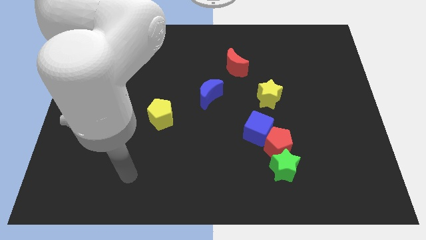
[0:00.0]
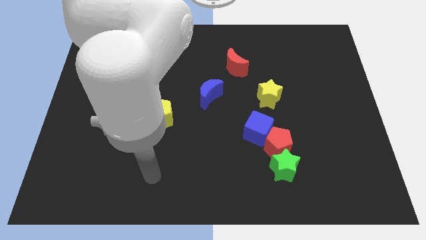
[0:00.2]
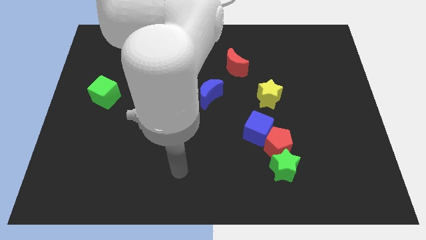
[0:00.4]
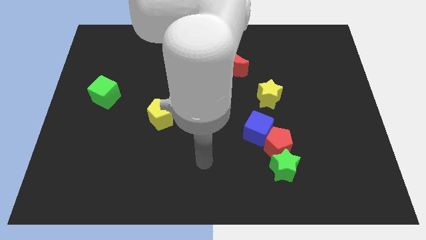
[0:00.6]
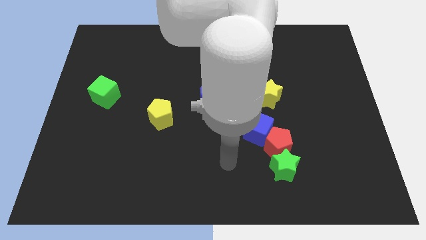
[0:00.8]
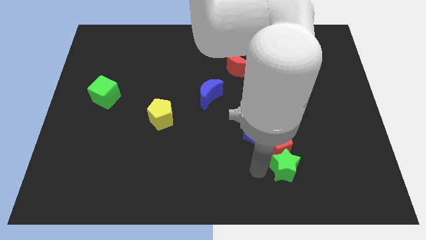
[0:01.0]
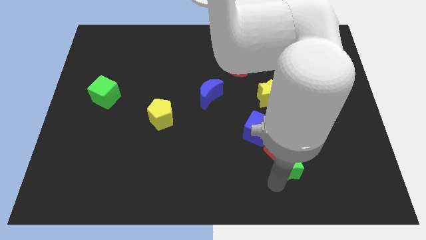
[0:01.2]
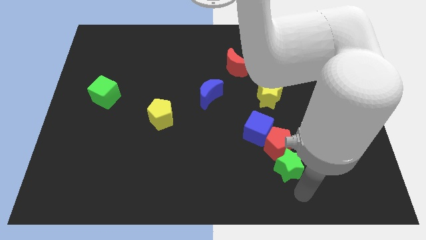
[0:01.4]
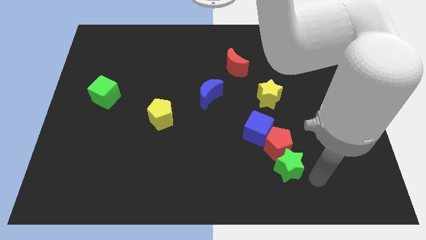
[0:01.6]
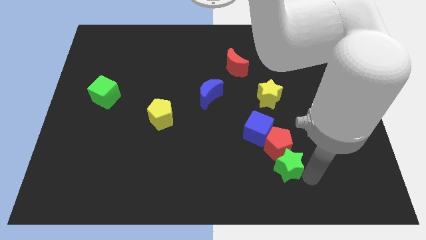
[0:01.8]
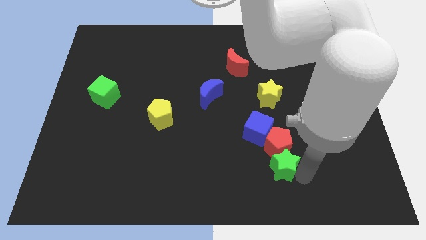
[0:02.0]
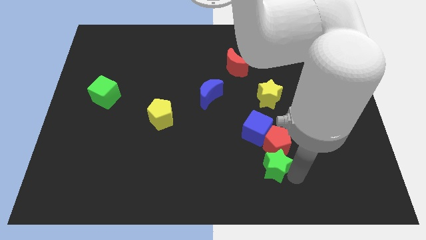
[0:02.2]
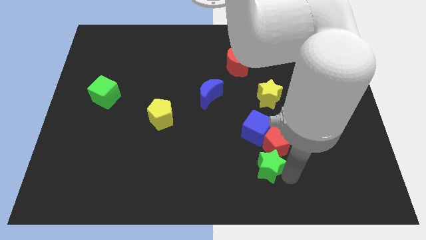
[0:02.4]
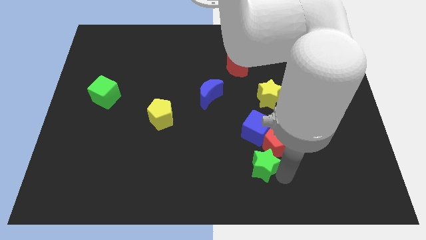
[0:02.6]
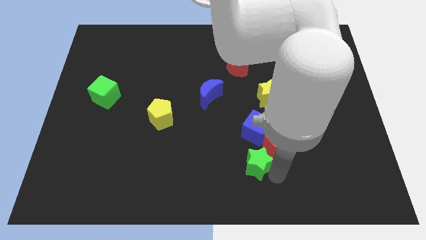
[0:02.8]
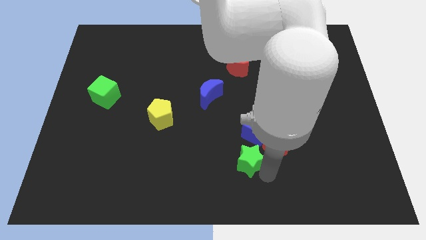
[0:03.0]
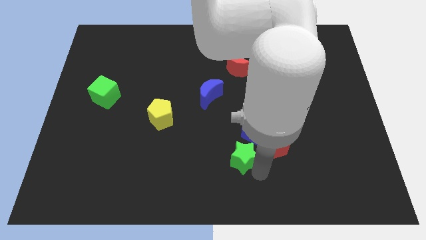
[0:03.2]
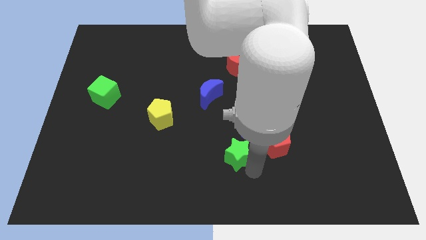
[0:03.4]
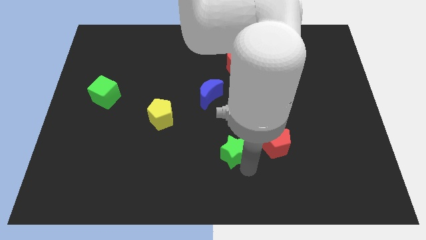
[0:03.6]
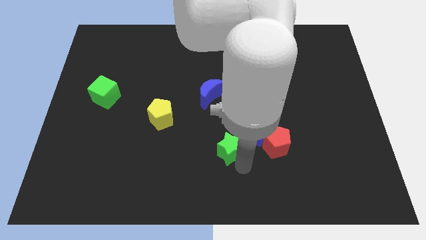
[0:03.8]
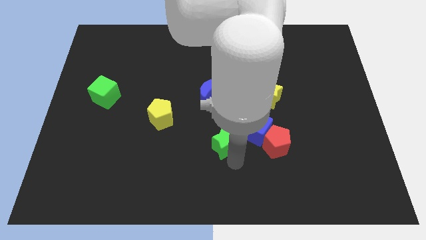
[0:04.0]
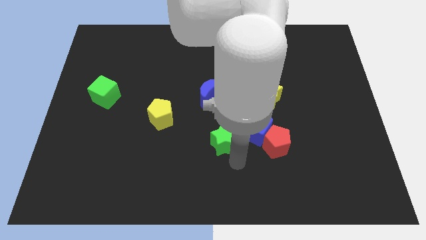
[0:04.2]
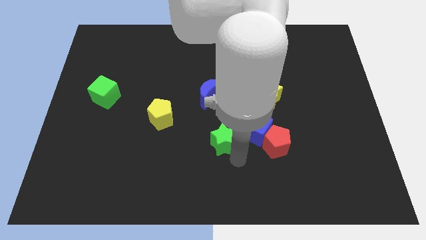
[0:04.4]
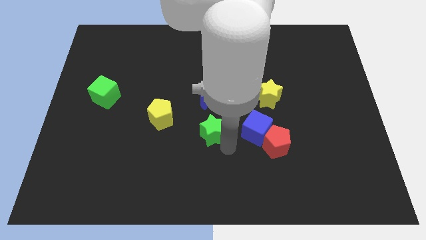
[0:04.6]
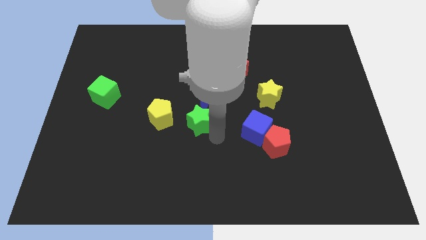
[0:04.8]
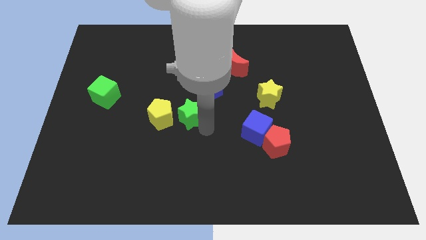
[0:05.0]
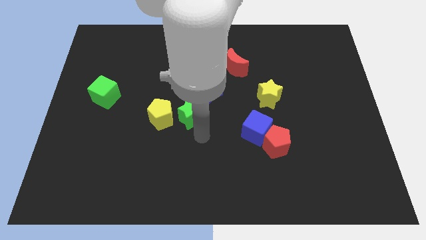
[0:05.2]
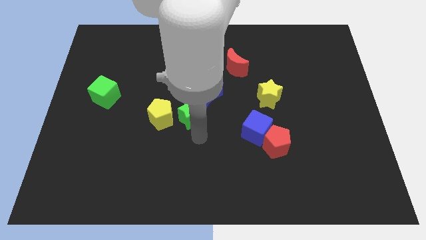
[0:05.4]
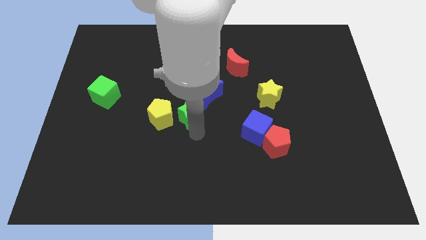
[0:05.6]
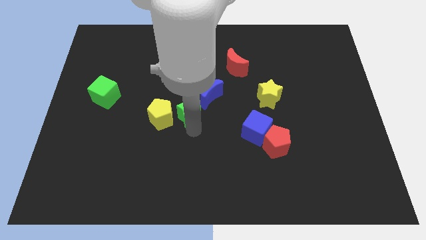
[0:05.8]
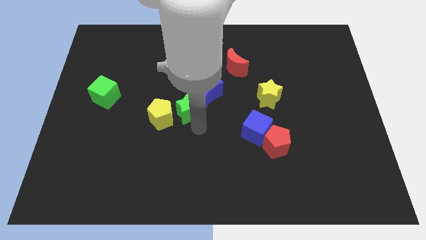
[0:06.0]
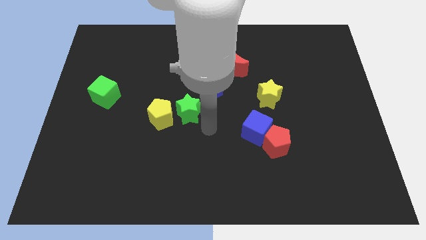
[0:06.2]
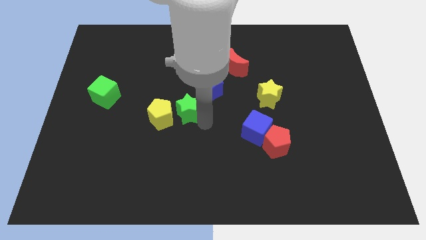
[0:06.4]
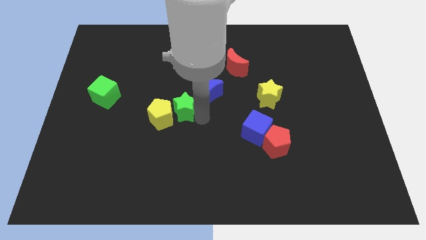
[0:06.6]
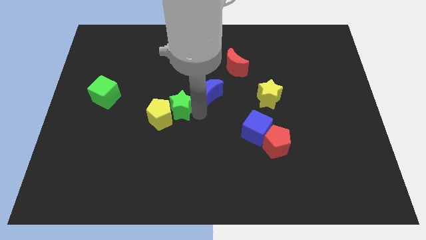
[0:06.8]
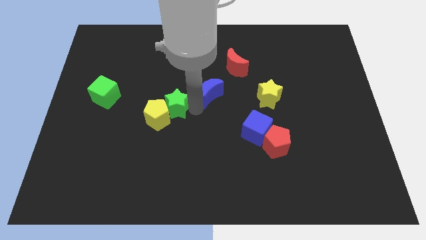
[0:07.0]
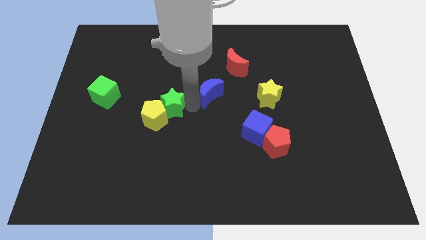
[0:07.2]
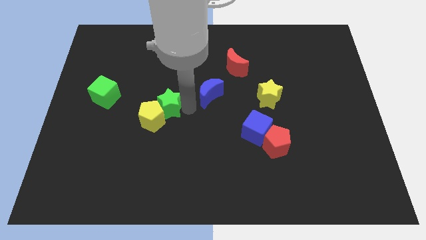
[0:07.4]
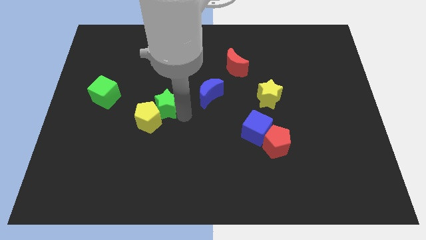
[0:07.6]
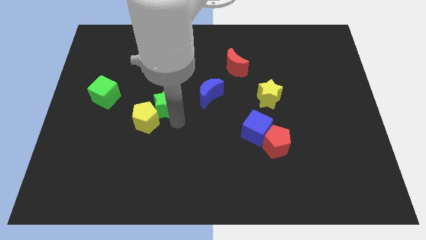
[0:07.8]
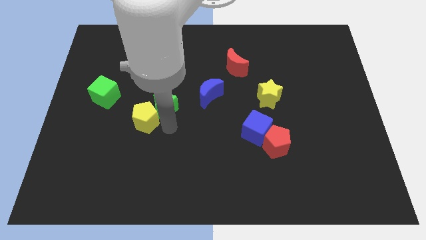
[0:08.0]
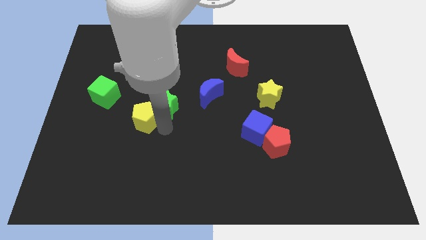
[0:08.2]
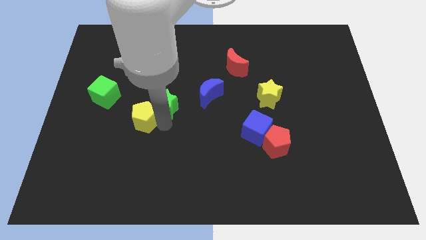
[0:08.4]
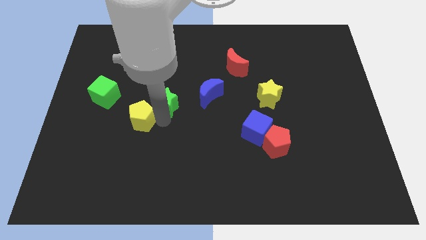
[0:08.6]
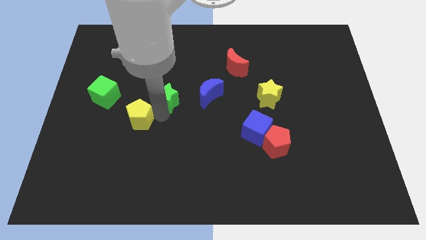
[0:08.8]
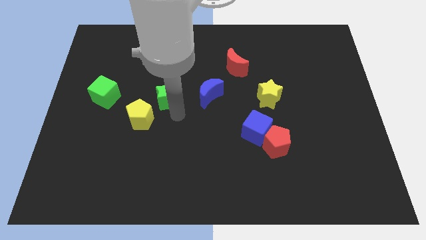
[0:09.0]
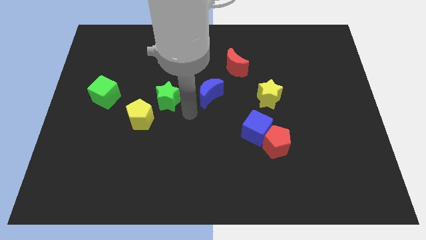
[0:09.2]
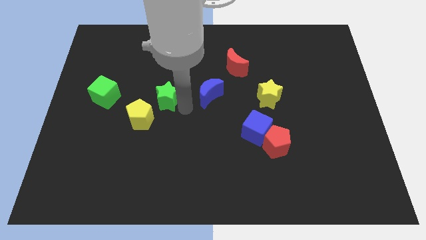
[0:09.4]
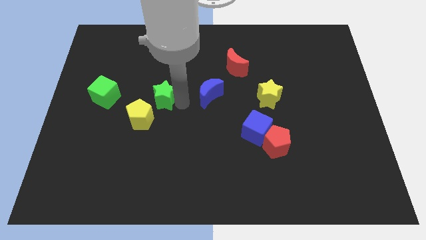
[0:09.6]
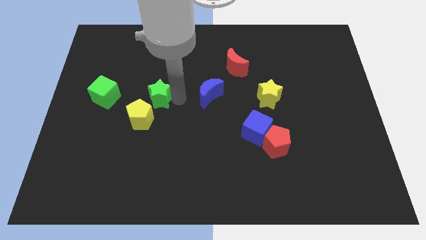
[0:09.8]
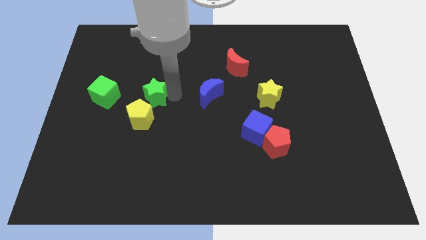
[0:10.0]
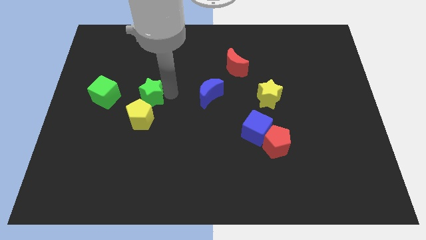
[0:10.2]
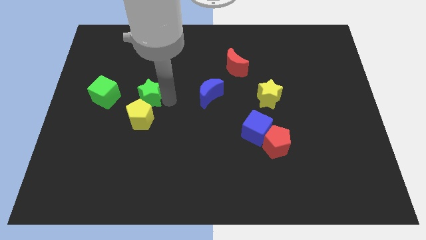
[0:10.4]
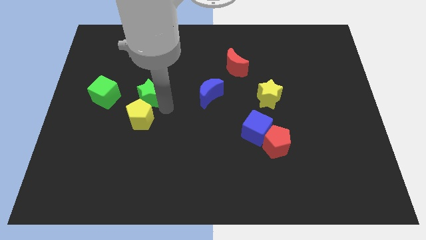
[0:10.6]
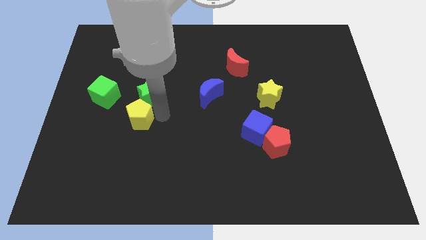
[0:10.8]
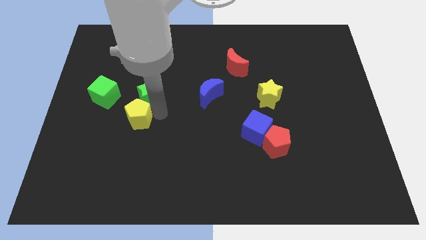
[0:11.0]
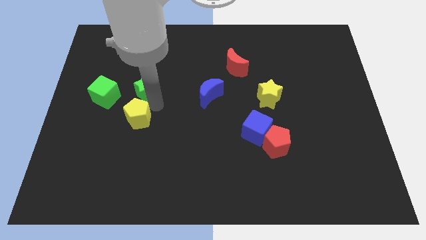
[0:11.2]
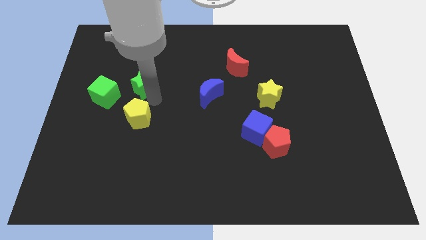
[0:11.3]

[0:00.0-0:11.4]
slide the green star to the top right side of the green cube

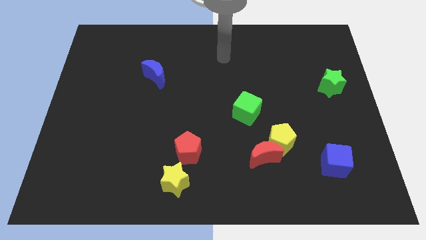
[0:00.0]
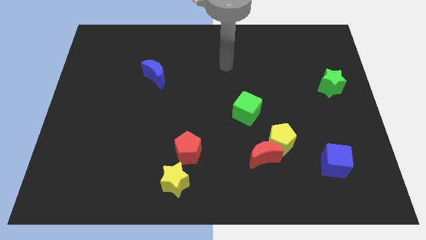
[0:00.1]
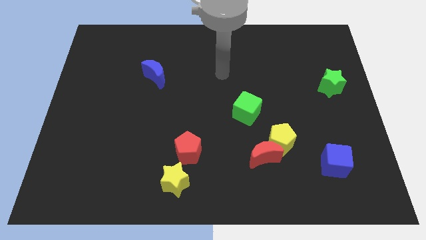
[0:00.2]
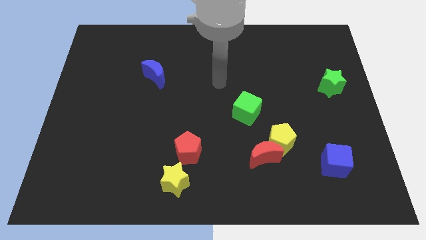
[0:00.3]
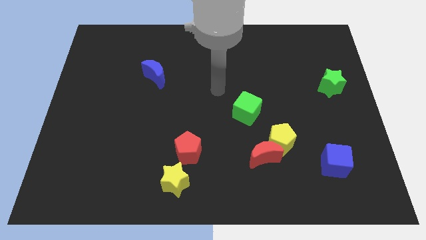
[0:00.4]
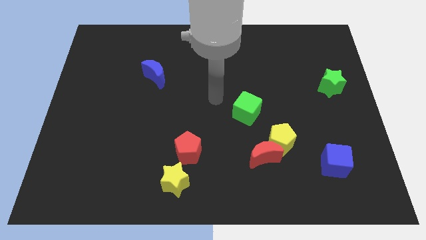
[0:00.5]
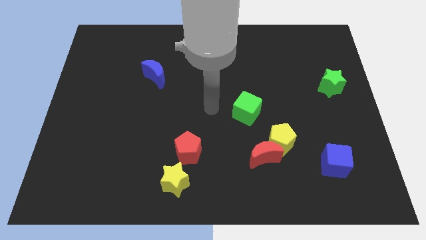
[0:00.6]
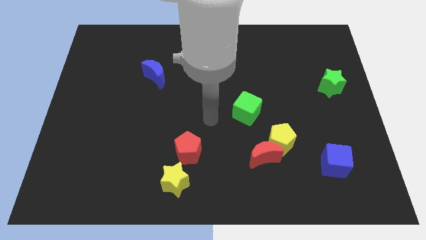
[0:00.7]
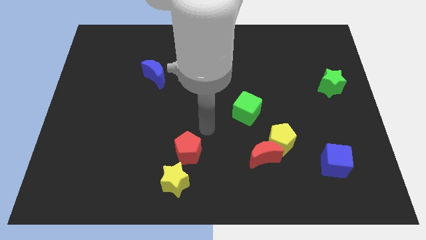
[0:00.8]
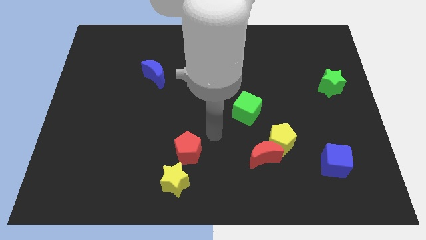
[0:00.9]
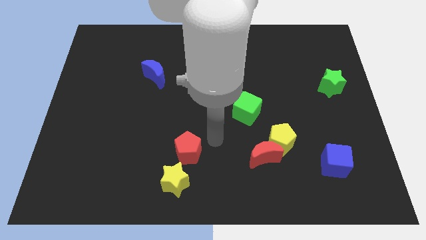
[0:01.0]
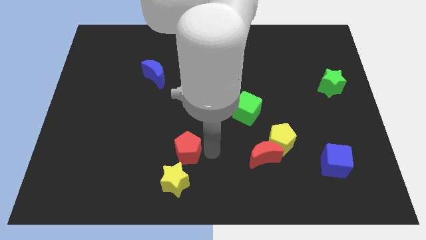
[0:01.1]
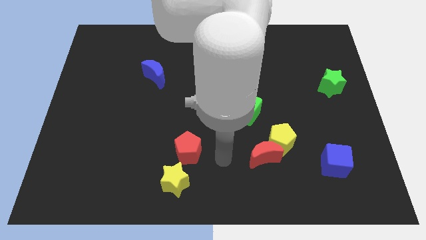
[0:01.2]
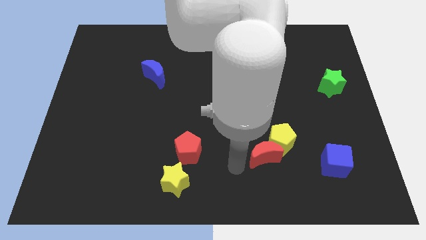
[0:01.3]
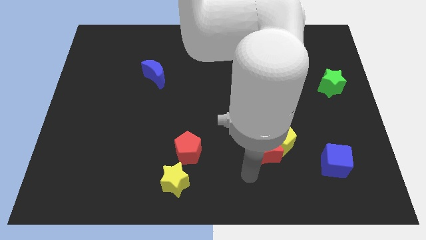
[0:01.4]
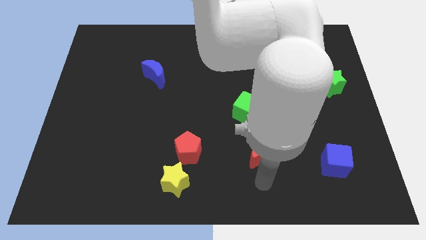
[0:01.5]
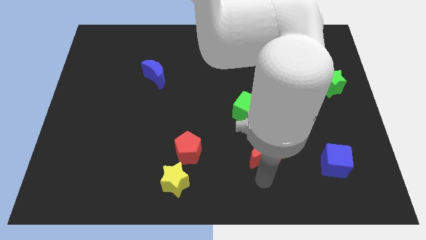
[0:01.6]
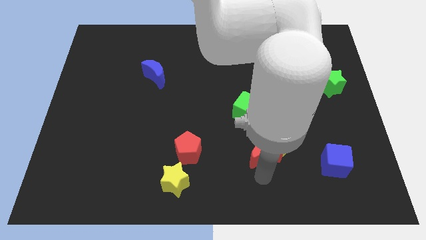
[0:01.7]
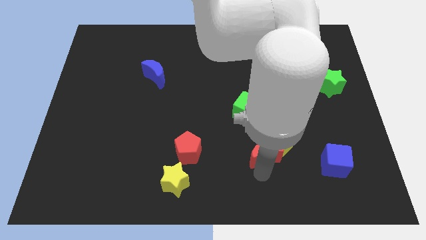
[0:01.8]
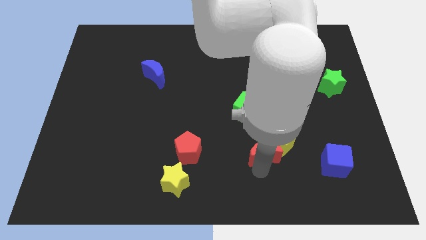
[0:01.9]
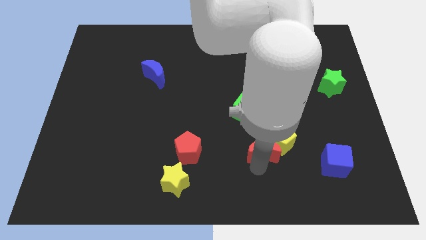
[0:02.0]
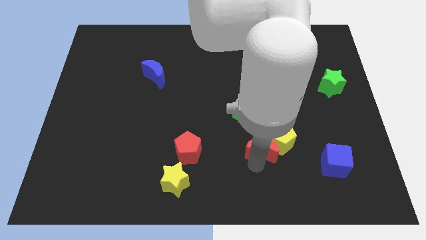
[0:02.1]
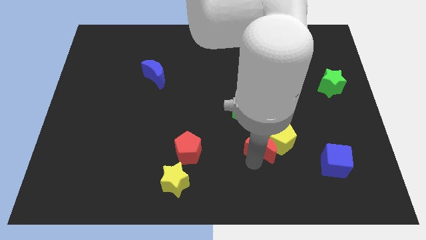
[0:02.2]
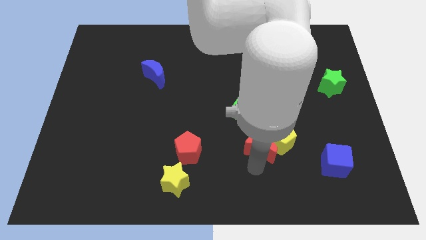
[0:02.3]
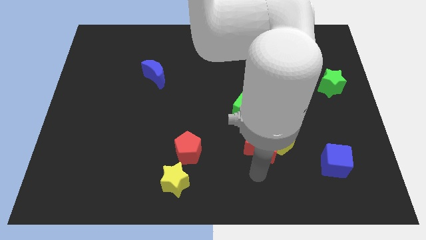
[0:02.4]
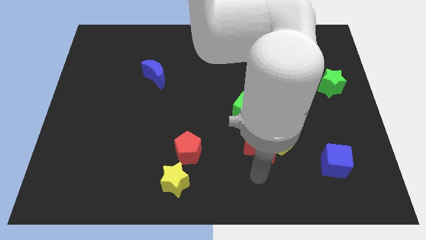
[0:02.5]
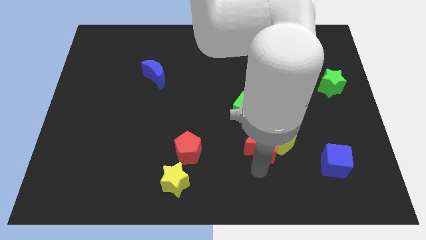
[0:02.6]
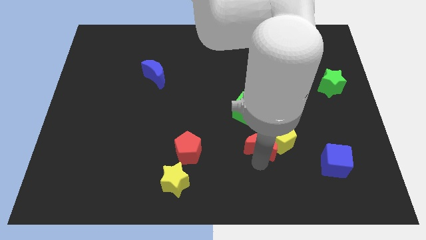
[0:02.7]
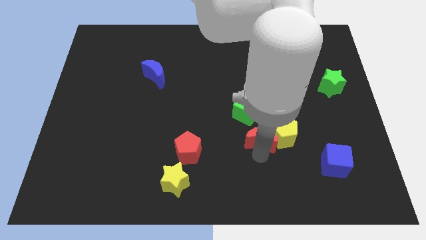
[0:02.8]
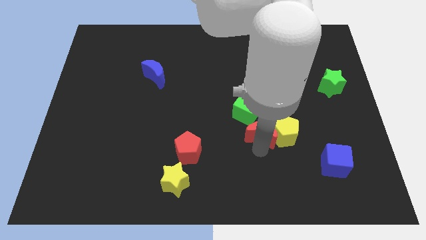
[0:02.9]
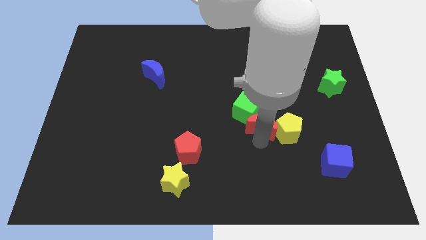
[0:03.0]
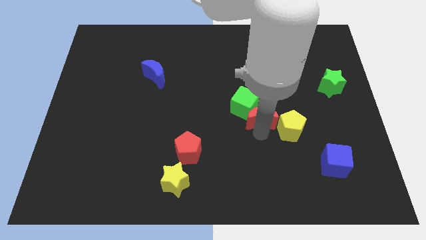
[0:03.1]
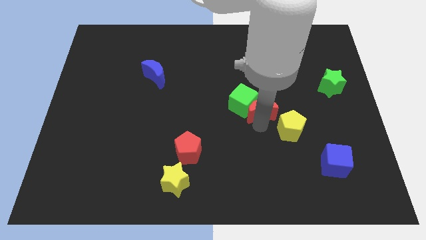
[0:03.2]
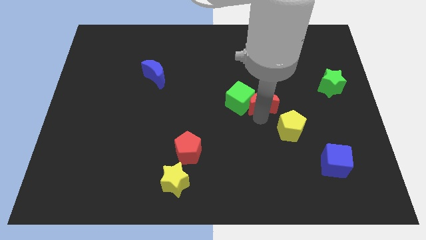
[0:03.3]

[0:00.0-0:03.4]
put the red moon to the top right of the green cube
